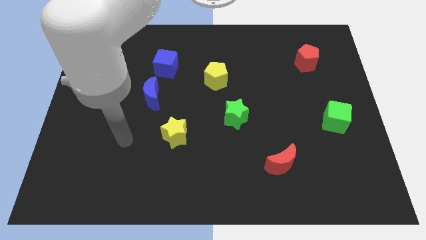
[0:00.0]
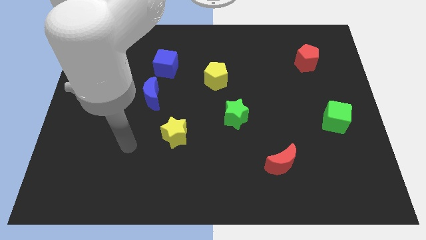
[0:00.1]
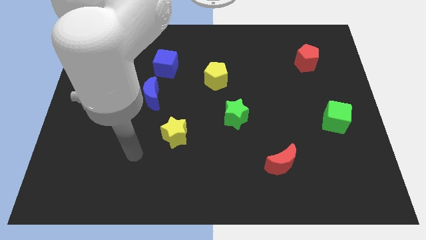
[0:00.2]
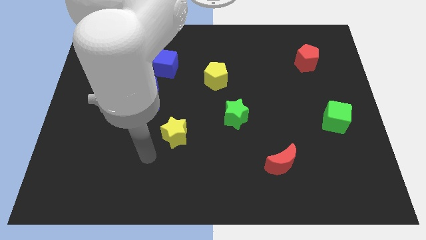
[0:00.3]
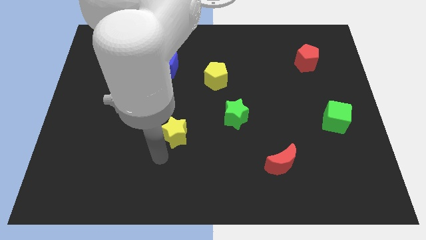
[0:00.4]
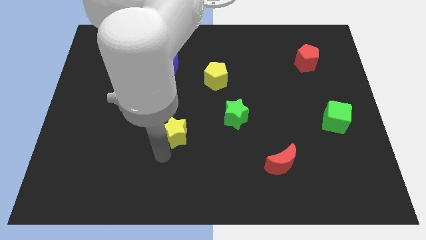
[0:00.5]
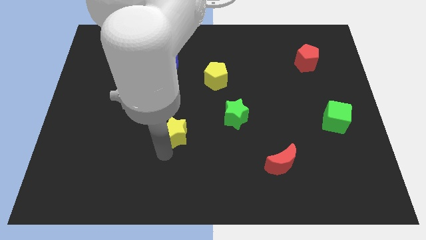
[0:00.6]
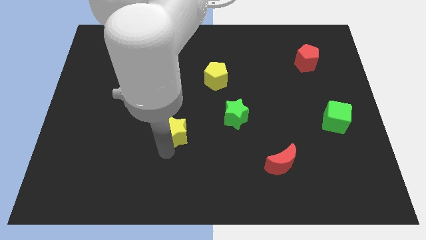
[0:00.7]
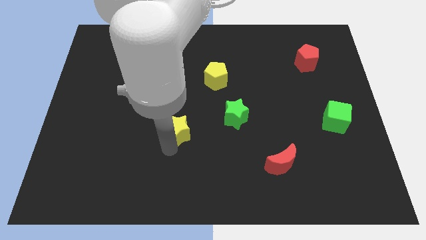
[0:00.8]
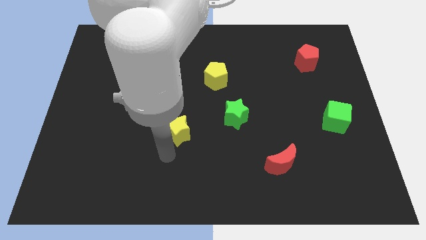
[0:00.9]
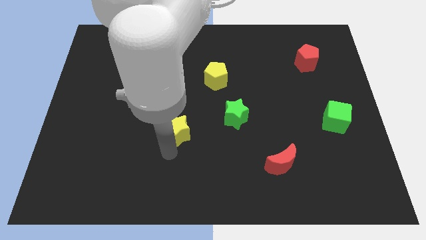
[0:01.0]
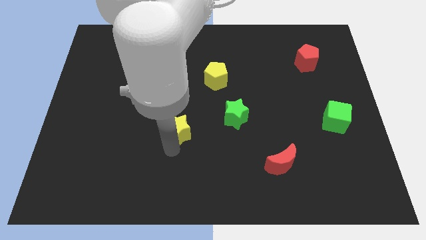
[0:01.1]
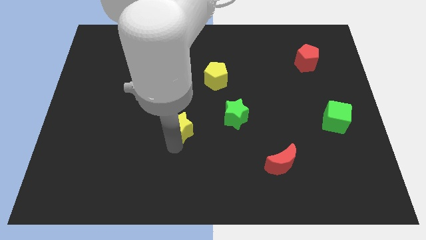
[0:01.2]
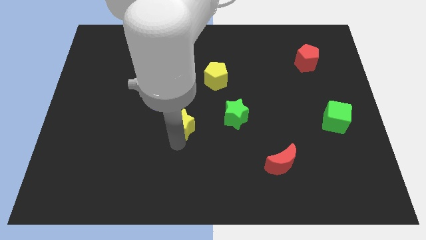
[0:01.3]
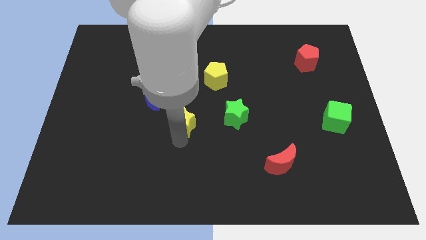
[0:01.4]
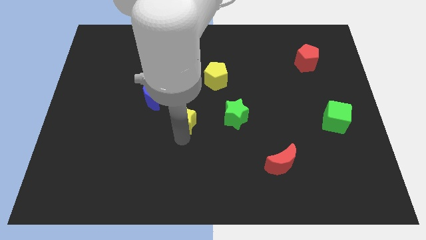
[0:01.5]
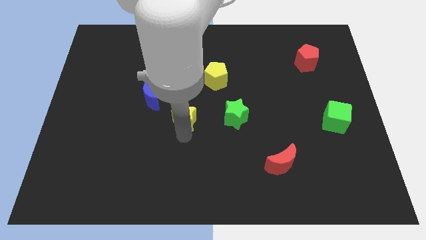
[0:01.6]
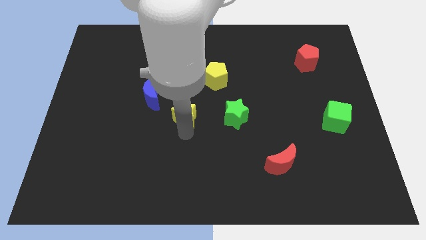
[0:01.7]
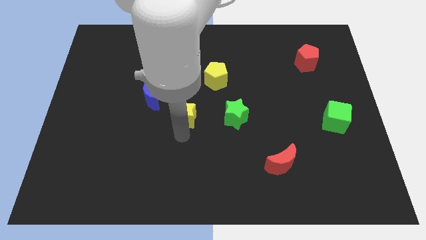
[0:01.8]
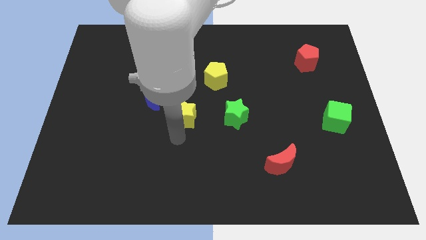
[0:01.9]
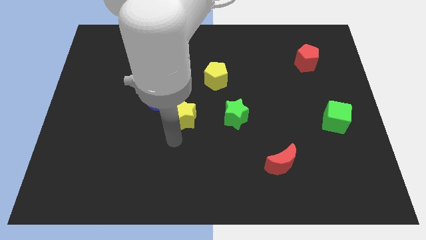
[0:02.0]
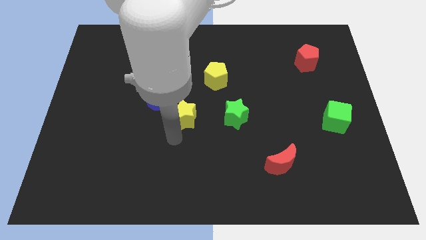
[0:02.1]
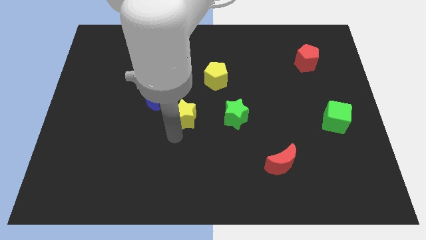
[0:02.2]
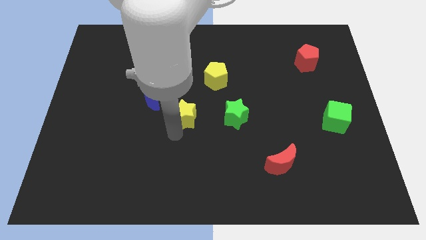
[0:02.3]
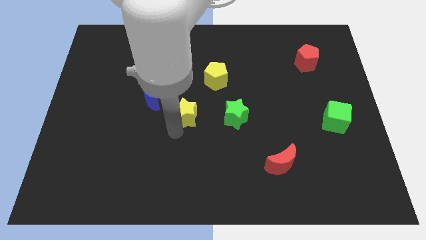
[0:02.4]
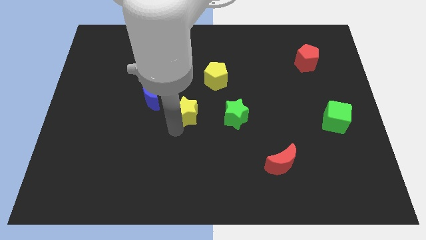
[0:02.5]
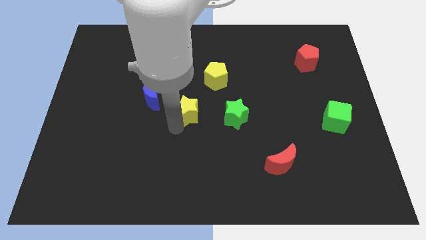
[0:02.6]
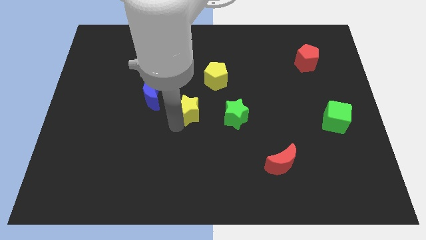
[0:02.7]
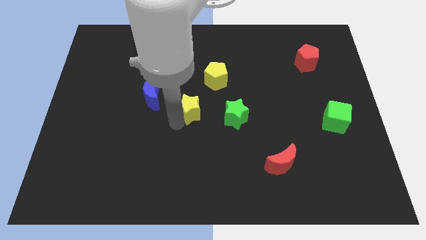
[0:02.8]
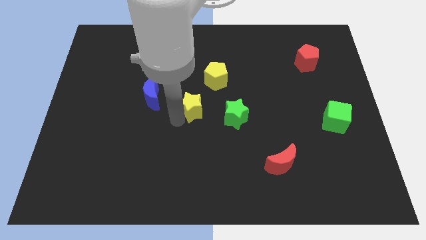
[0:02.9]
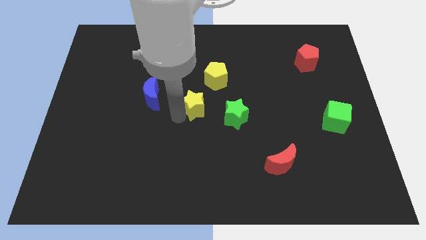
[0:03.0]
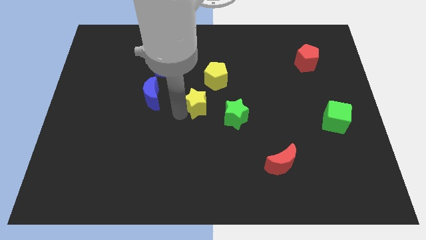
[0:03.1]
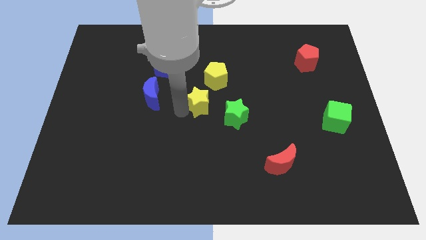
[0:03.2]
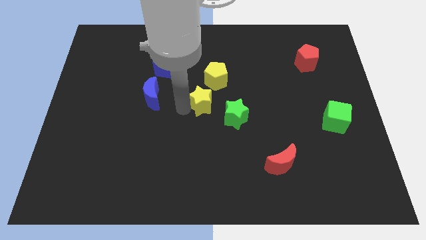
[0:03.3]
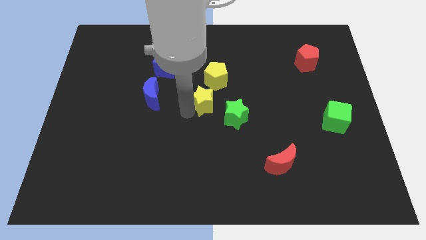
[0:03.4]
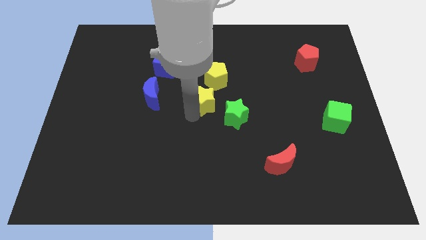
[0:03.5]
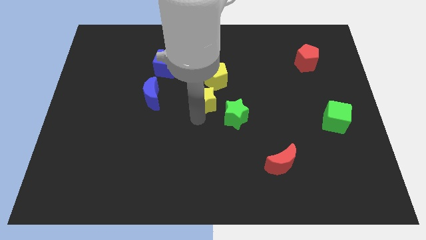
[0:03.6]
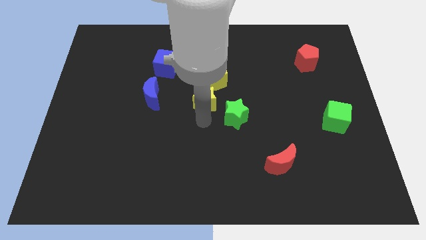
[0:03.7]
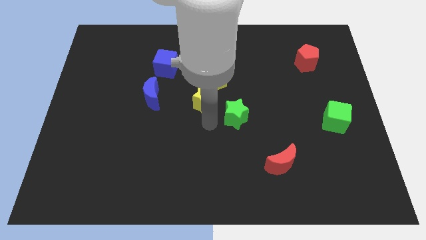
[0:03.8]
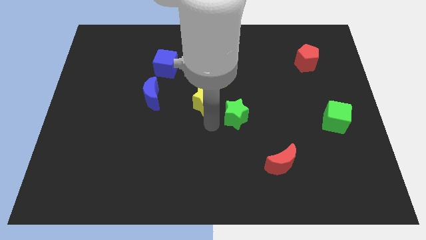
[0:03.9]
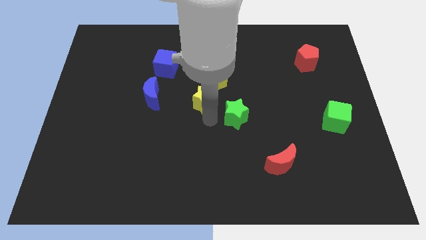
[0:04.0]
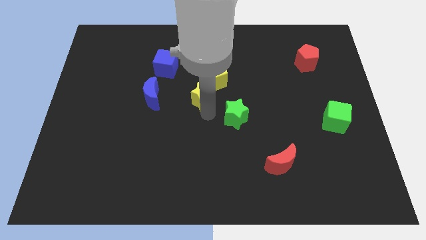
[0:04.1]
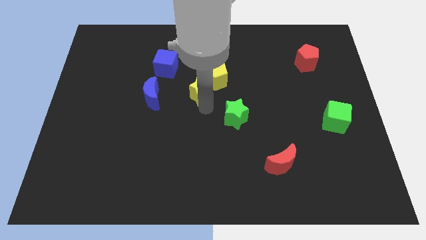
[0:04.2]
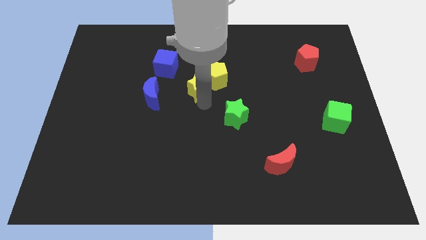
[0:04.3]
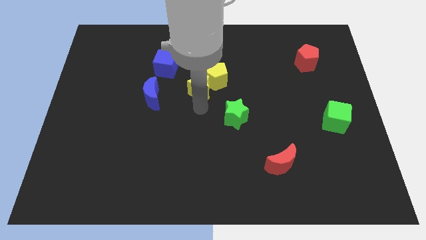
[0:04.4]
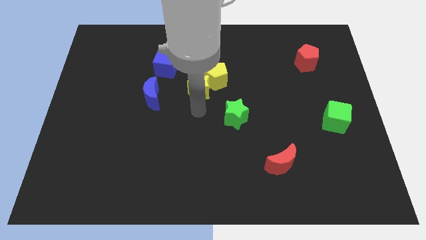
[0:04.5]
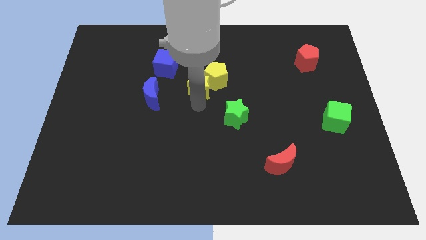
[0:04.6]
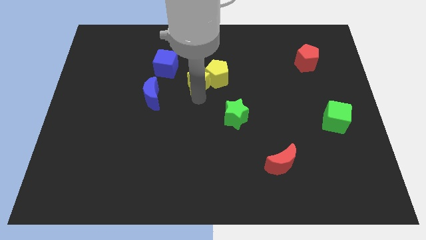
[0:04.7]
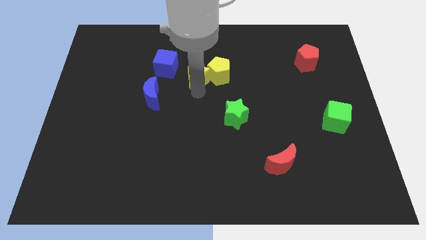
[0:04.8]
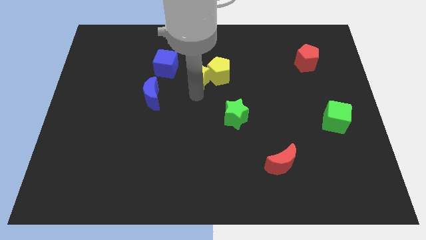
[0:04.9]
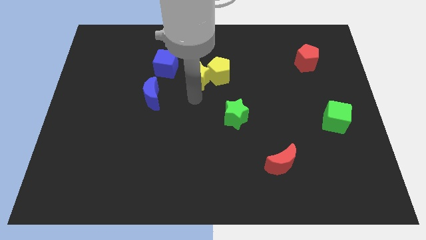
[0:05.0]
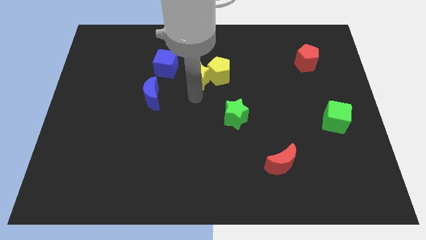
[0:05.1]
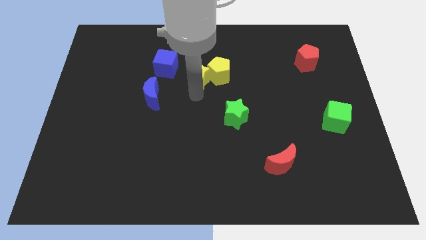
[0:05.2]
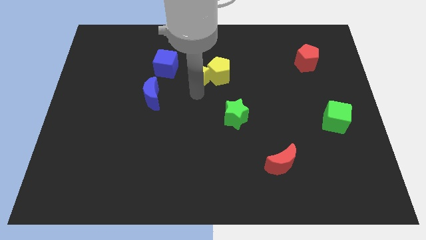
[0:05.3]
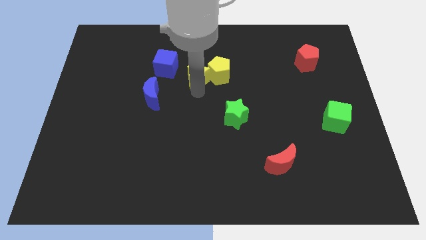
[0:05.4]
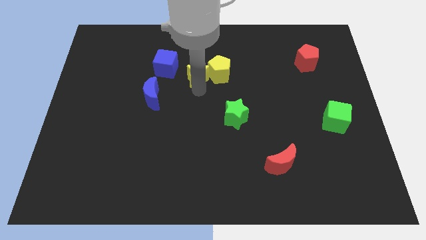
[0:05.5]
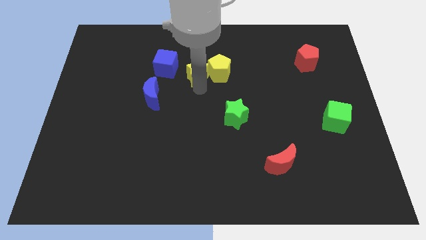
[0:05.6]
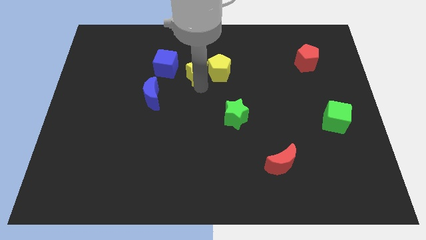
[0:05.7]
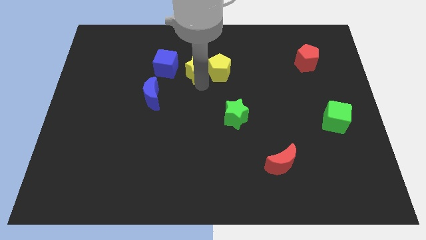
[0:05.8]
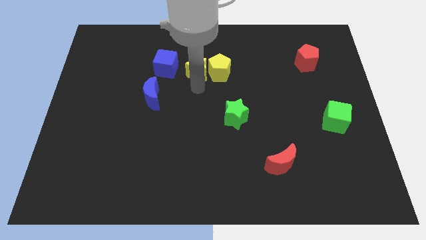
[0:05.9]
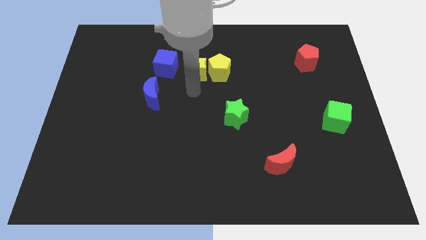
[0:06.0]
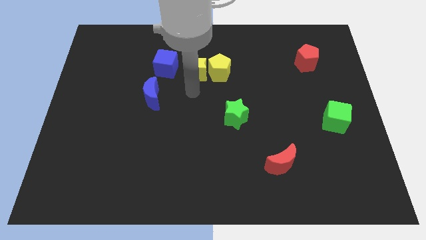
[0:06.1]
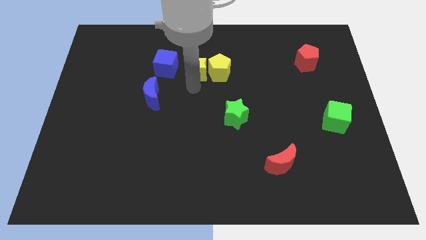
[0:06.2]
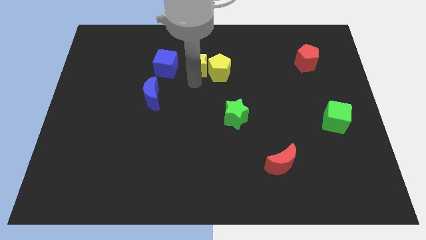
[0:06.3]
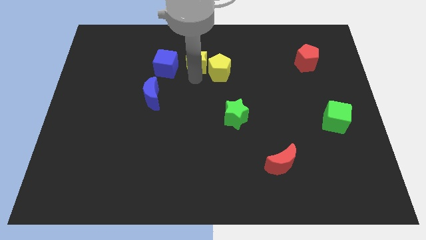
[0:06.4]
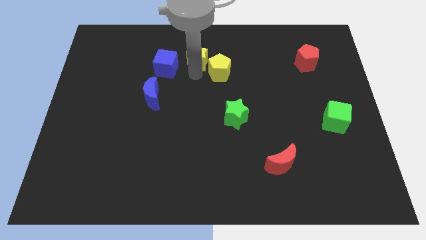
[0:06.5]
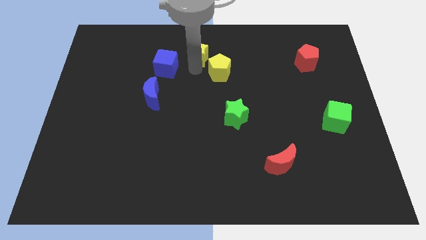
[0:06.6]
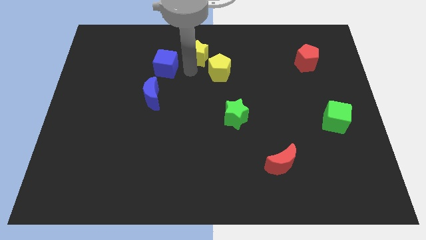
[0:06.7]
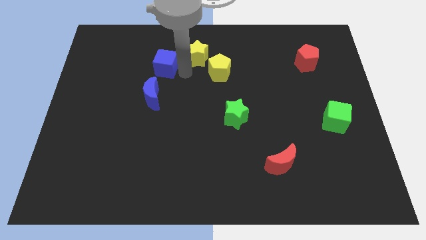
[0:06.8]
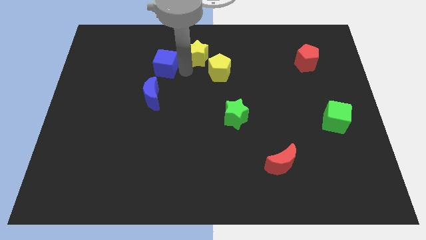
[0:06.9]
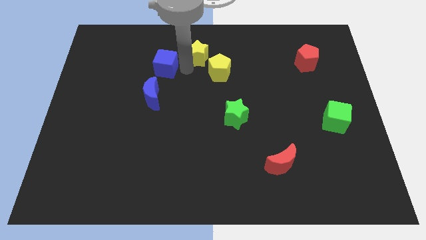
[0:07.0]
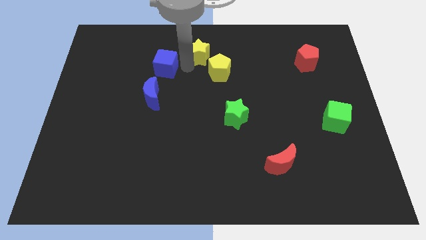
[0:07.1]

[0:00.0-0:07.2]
put the yellow star to the top side
